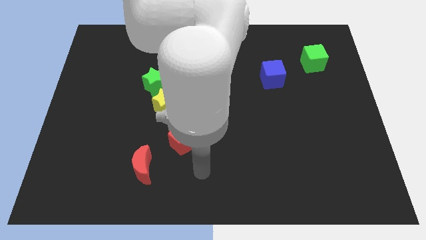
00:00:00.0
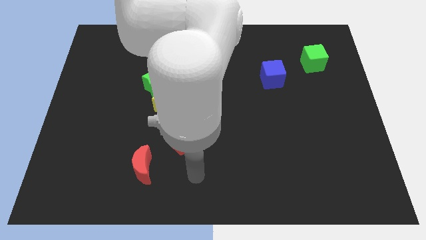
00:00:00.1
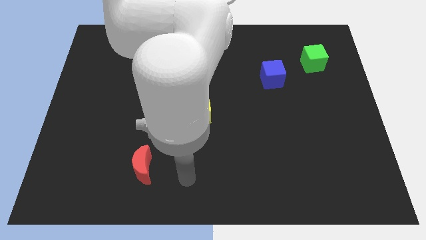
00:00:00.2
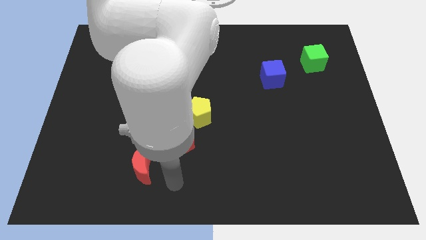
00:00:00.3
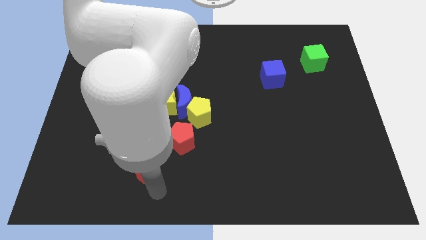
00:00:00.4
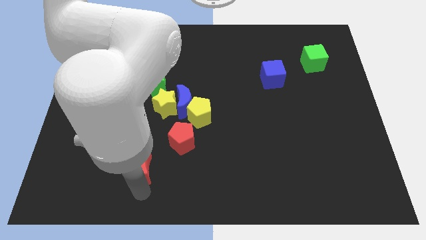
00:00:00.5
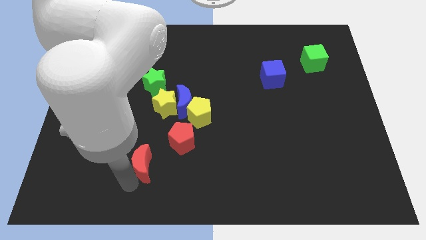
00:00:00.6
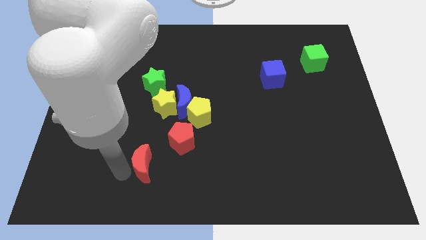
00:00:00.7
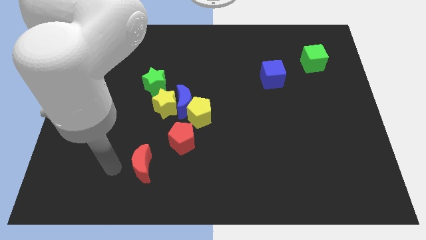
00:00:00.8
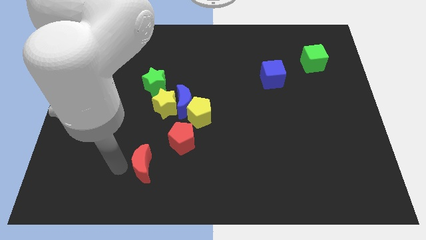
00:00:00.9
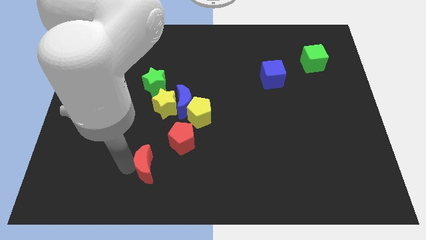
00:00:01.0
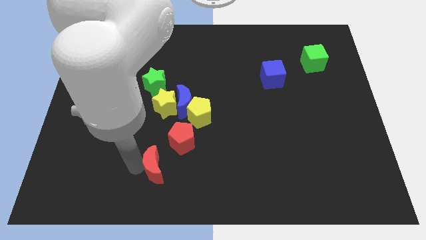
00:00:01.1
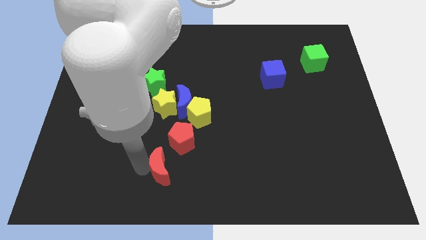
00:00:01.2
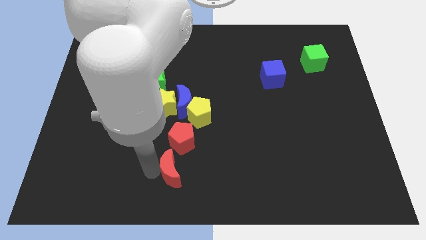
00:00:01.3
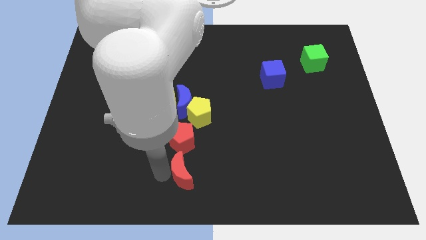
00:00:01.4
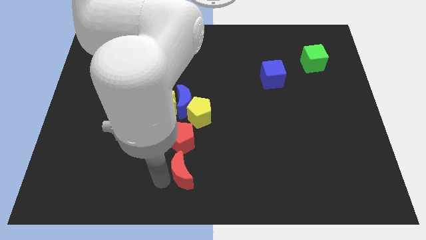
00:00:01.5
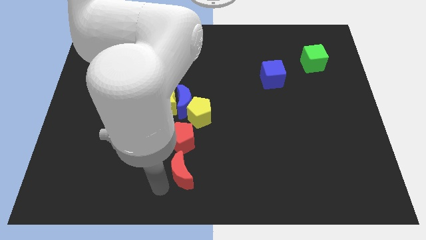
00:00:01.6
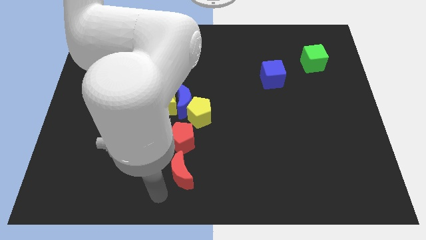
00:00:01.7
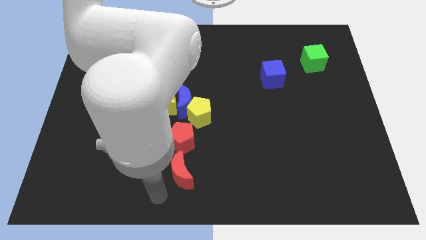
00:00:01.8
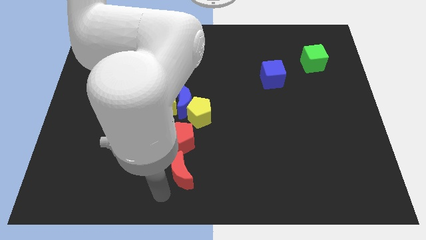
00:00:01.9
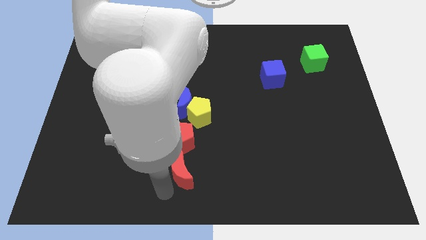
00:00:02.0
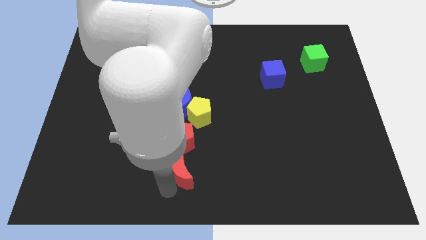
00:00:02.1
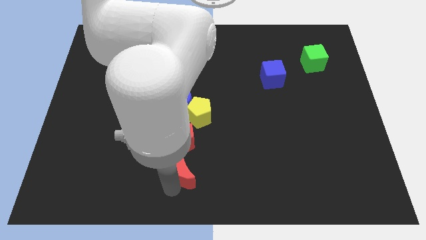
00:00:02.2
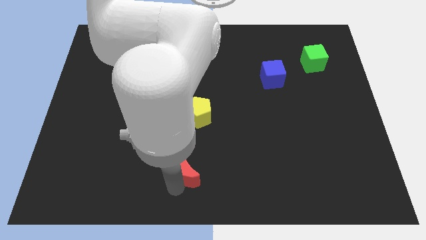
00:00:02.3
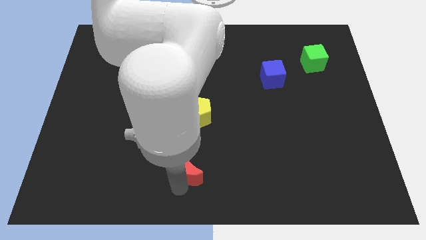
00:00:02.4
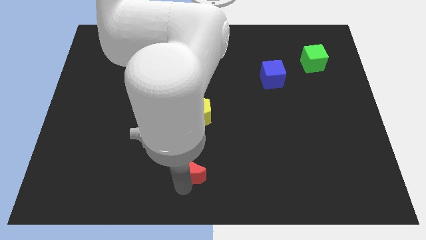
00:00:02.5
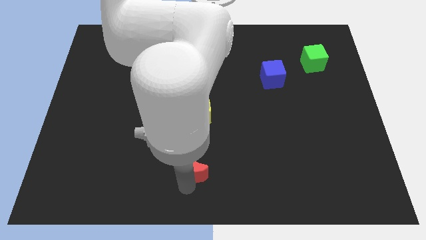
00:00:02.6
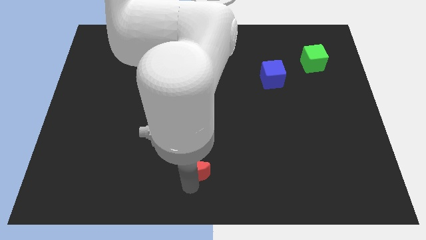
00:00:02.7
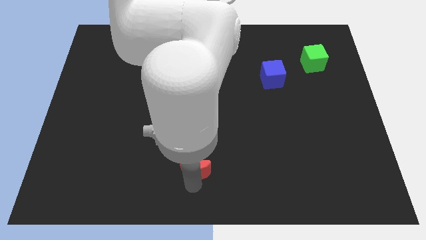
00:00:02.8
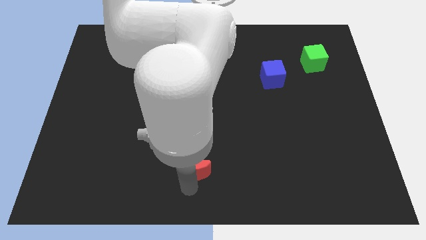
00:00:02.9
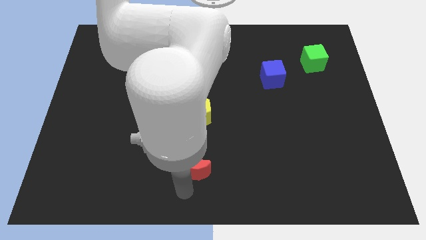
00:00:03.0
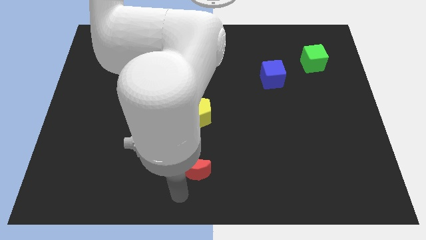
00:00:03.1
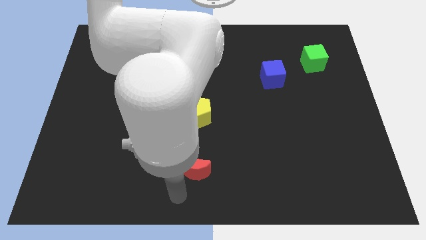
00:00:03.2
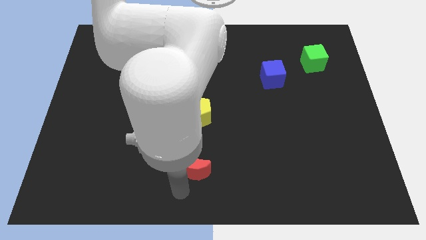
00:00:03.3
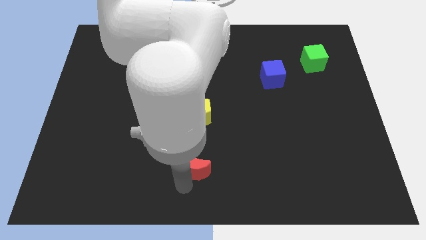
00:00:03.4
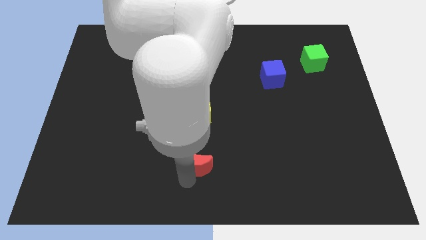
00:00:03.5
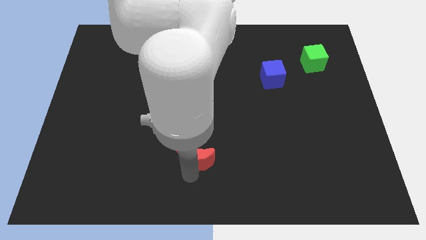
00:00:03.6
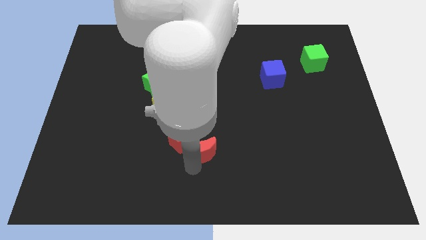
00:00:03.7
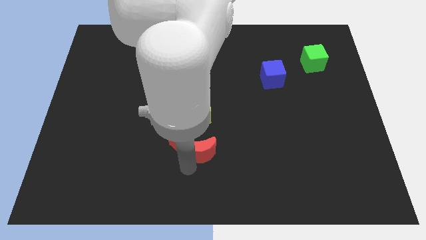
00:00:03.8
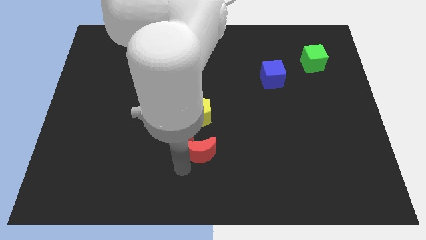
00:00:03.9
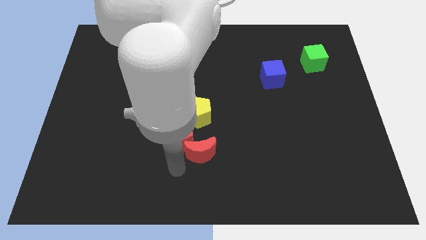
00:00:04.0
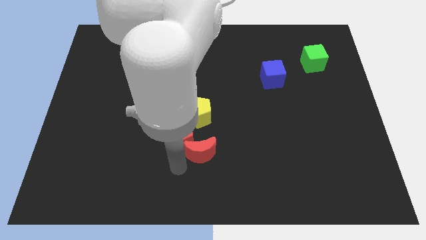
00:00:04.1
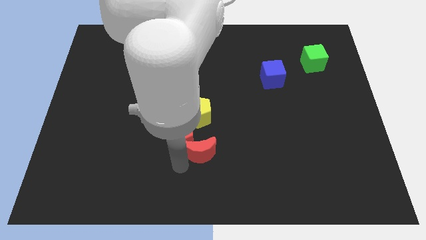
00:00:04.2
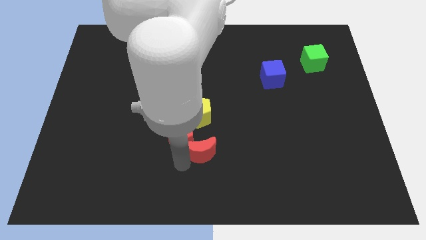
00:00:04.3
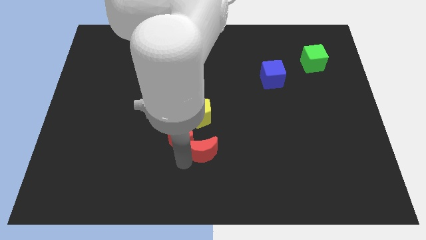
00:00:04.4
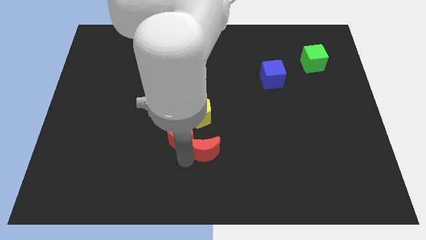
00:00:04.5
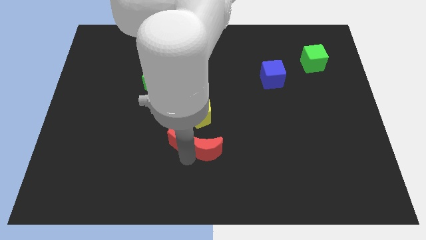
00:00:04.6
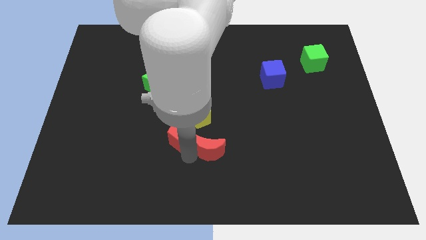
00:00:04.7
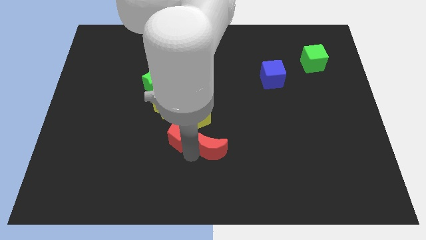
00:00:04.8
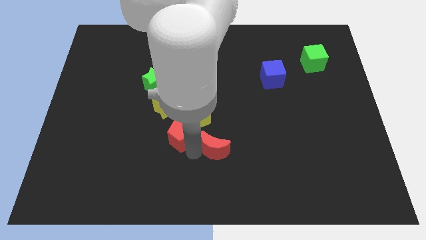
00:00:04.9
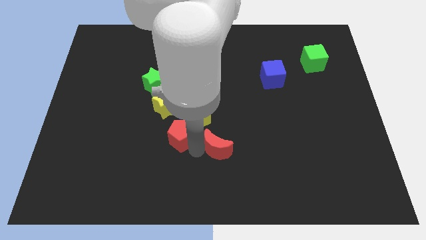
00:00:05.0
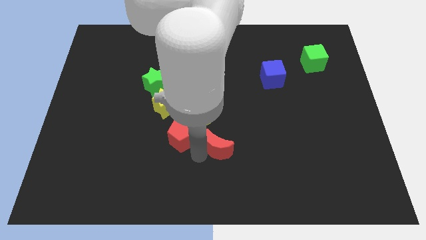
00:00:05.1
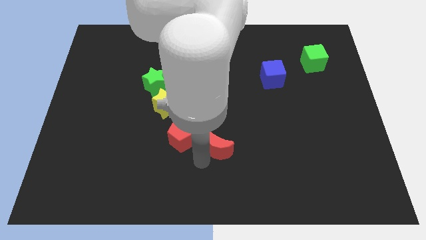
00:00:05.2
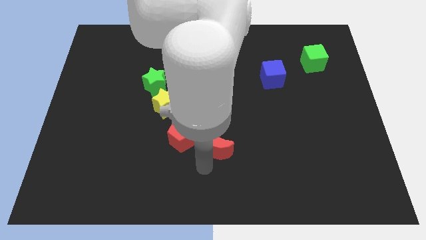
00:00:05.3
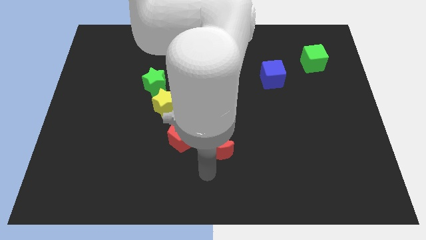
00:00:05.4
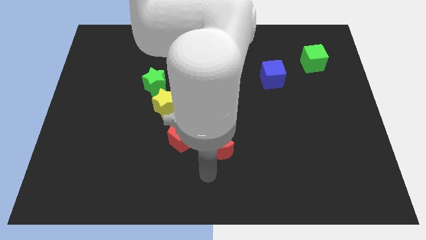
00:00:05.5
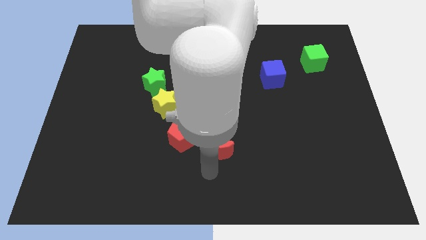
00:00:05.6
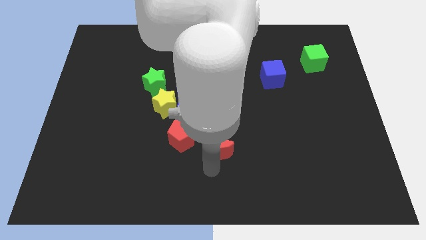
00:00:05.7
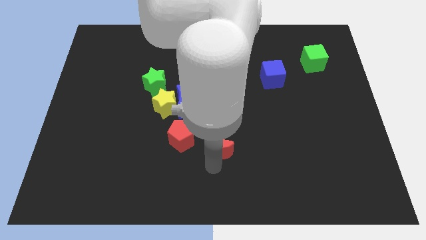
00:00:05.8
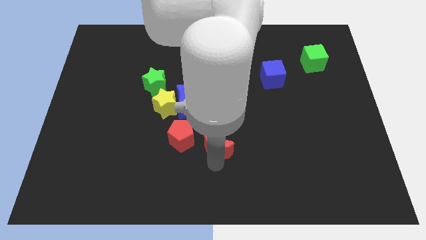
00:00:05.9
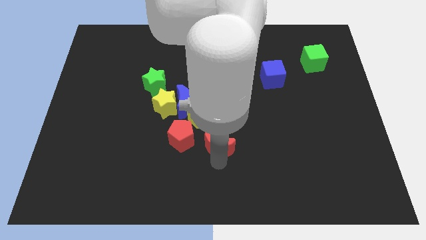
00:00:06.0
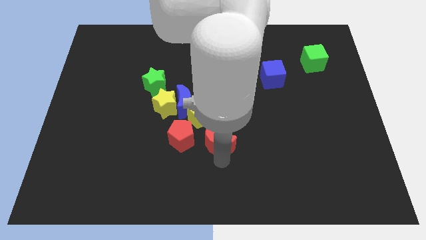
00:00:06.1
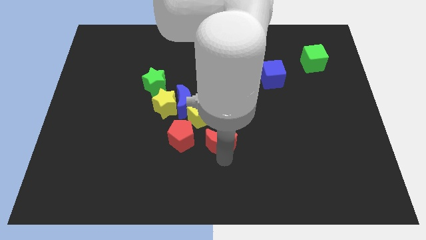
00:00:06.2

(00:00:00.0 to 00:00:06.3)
put the red moon to the middle of the board
